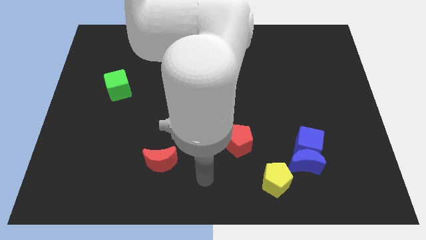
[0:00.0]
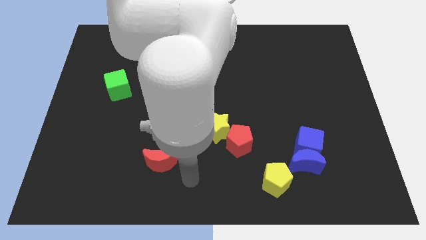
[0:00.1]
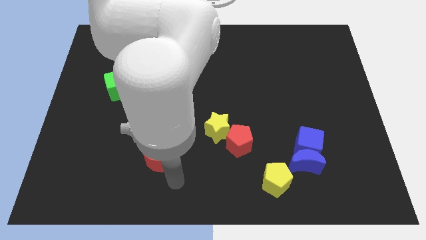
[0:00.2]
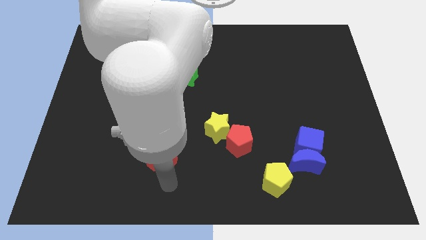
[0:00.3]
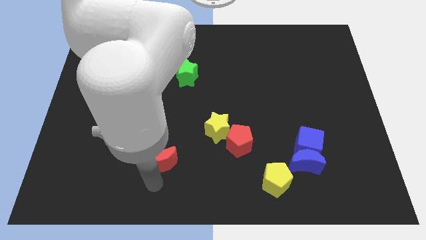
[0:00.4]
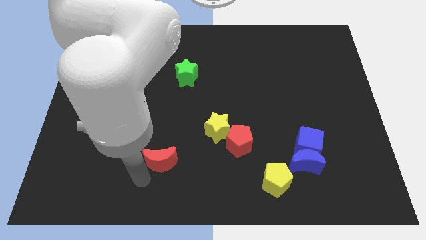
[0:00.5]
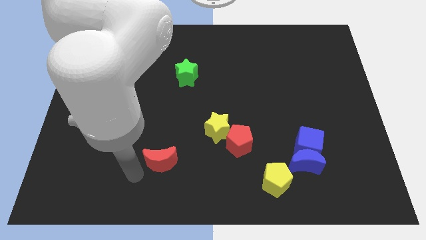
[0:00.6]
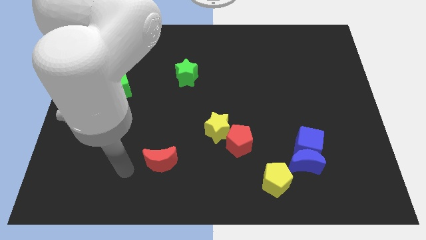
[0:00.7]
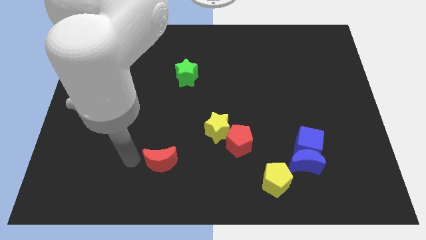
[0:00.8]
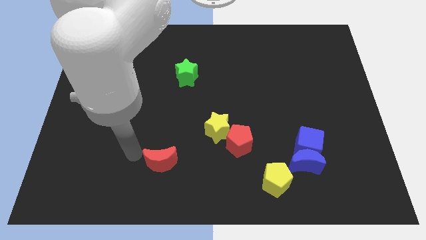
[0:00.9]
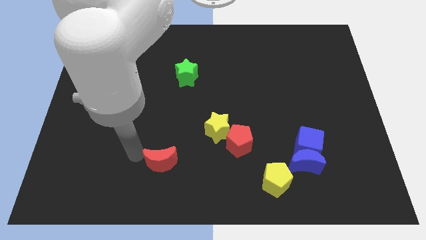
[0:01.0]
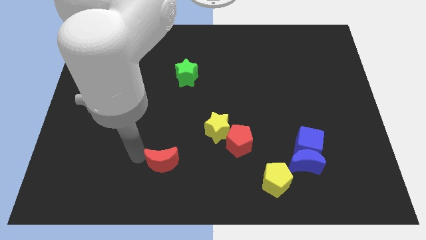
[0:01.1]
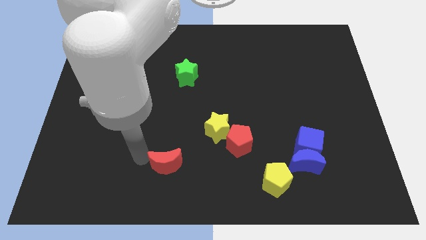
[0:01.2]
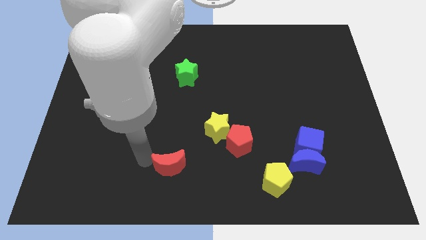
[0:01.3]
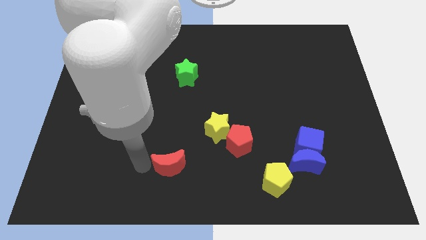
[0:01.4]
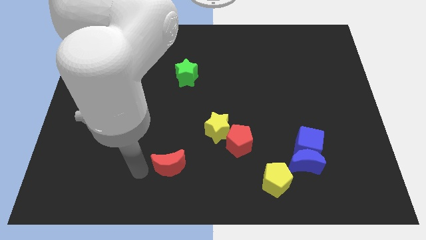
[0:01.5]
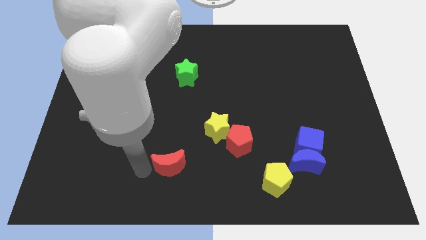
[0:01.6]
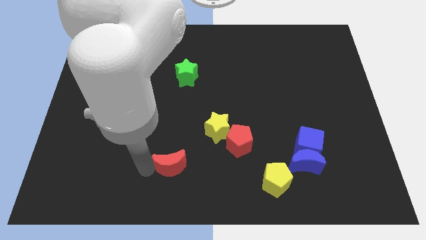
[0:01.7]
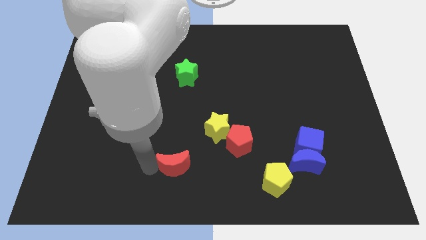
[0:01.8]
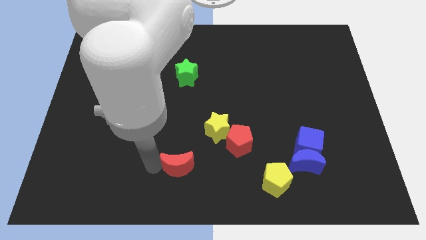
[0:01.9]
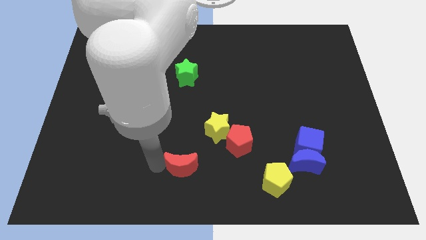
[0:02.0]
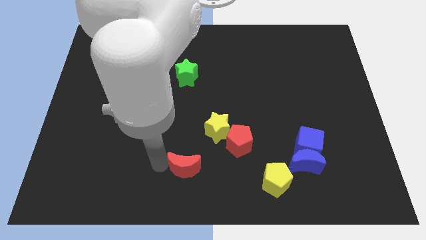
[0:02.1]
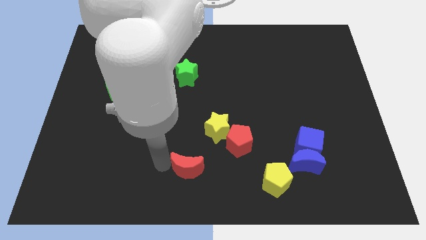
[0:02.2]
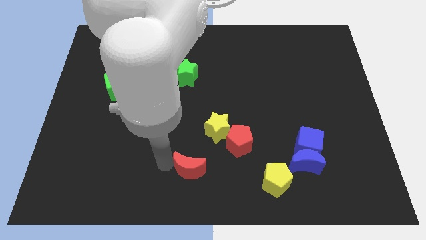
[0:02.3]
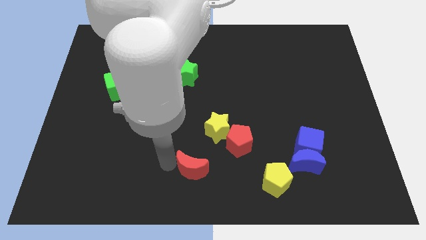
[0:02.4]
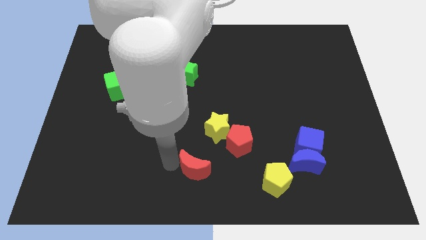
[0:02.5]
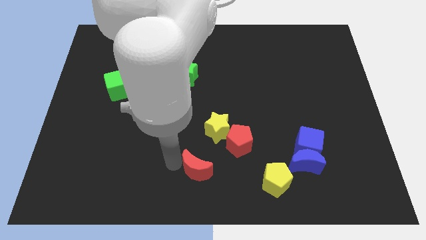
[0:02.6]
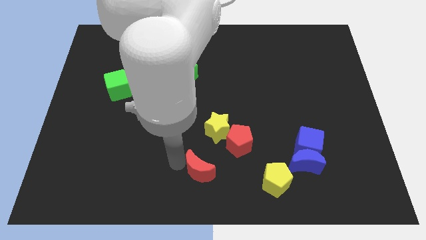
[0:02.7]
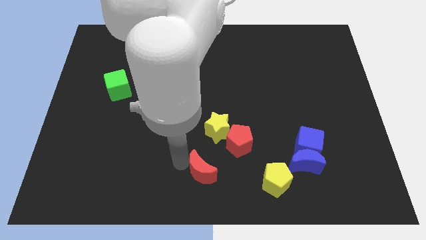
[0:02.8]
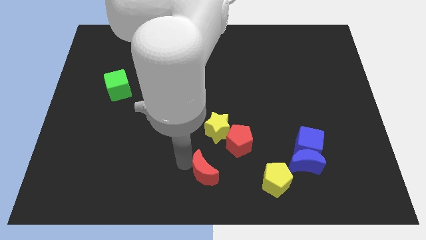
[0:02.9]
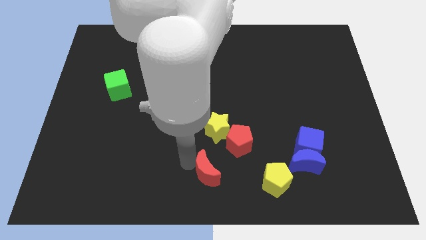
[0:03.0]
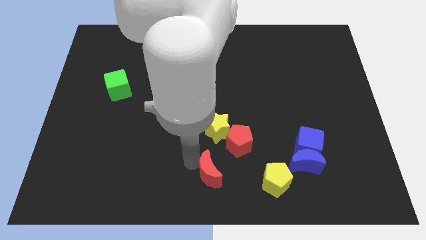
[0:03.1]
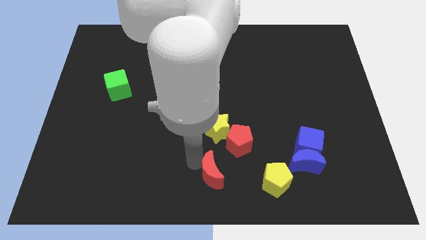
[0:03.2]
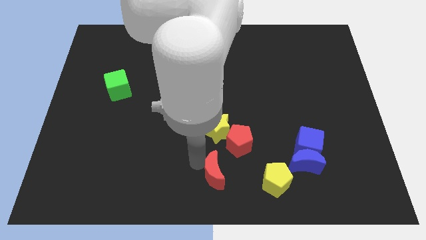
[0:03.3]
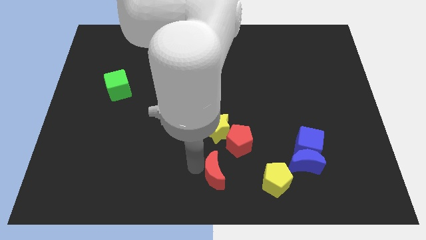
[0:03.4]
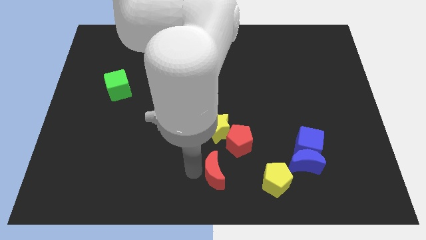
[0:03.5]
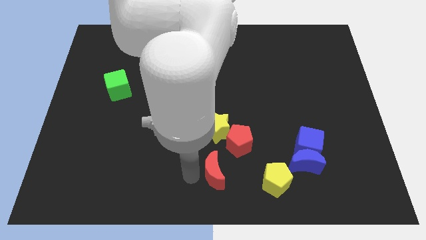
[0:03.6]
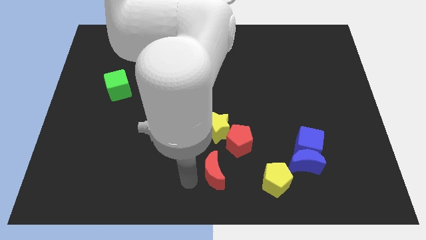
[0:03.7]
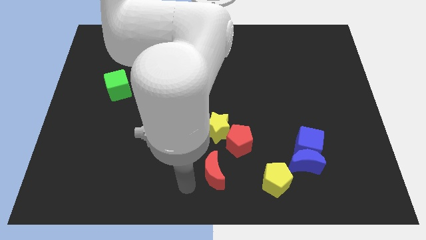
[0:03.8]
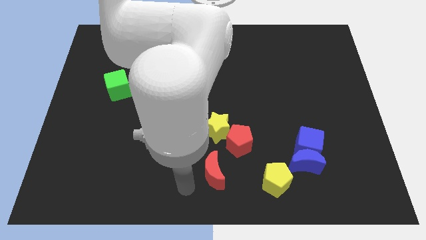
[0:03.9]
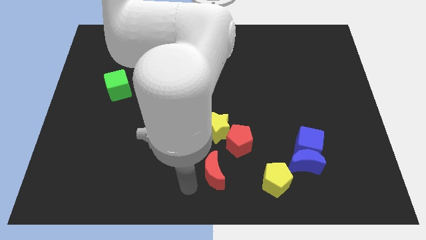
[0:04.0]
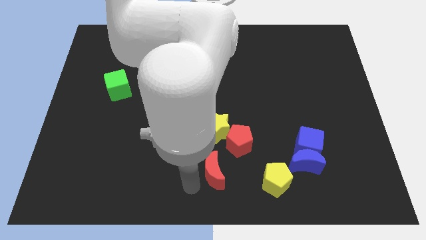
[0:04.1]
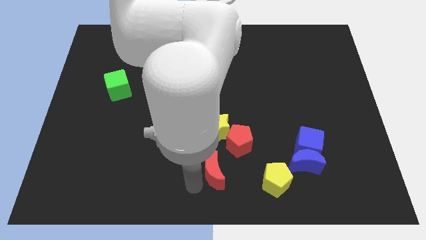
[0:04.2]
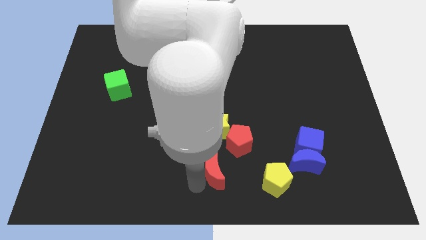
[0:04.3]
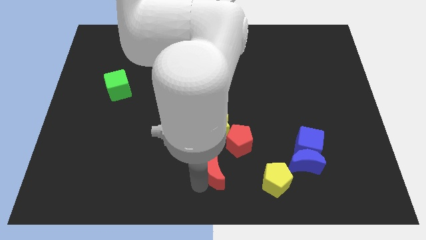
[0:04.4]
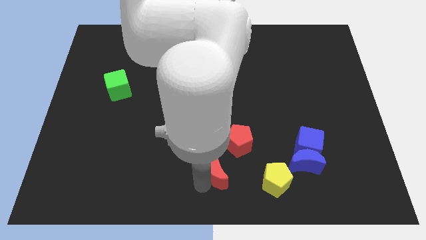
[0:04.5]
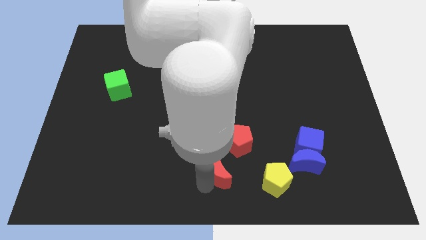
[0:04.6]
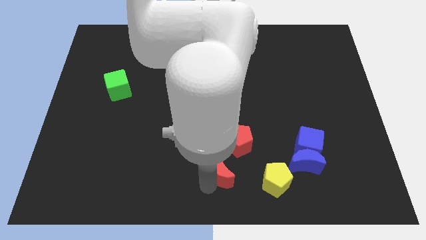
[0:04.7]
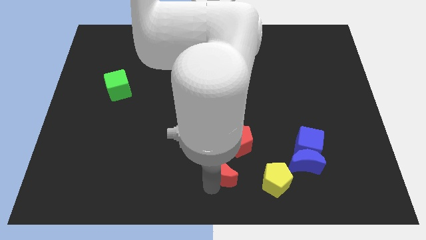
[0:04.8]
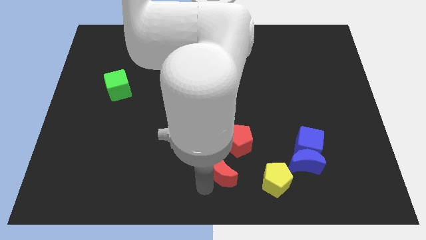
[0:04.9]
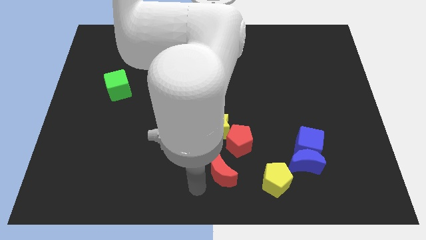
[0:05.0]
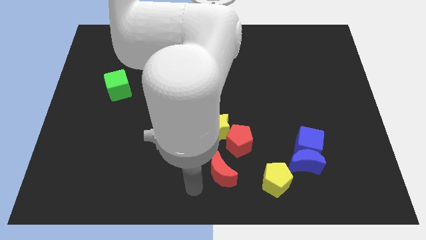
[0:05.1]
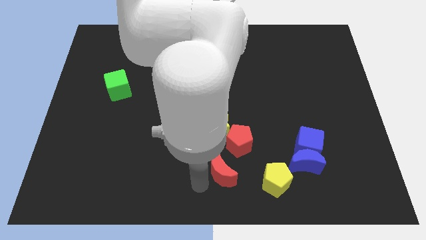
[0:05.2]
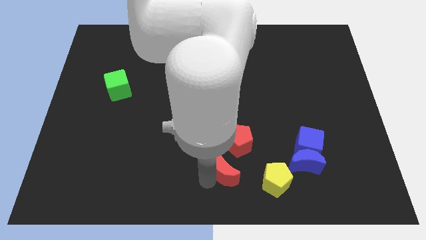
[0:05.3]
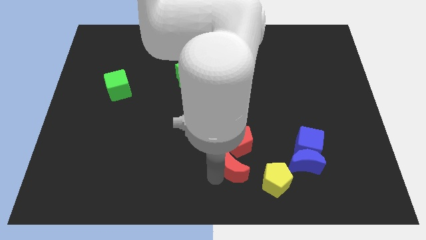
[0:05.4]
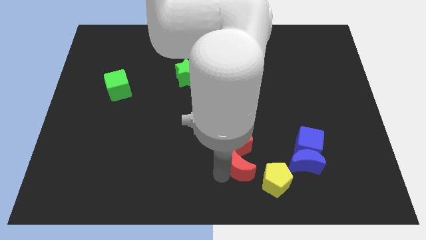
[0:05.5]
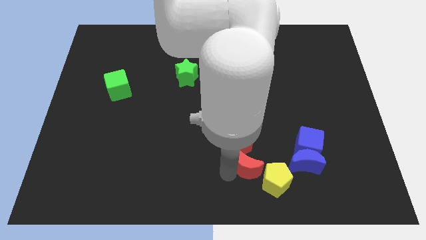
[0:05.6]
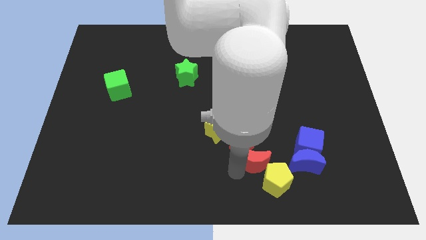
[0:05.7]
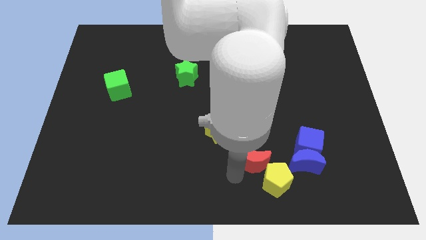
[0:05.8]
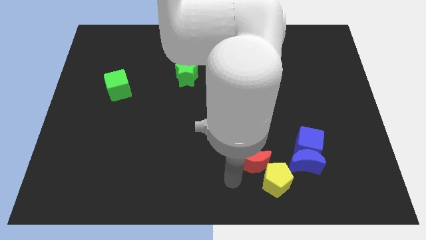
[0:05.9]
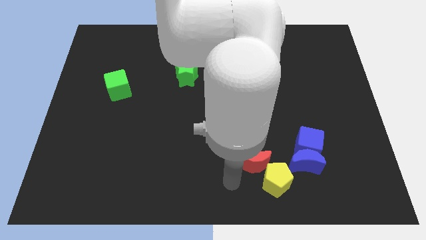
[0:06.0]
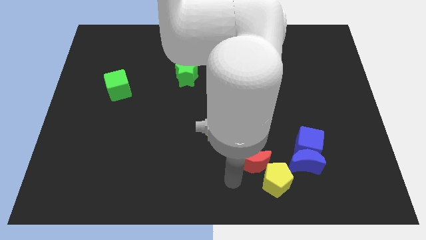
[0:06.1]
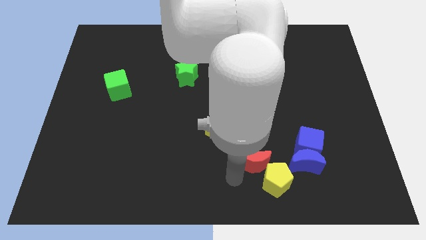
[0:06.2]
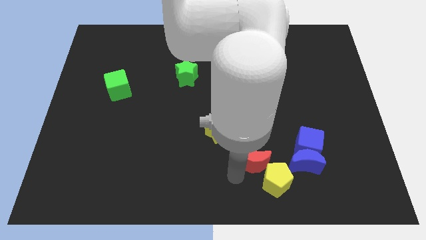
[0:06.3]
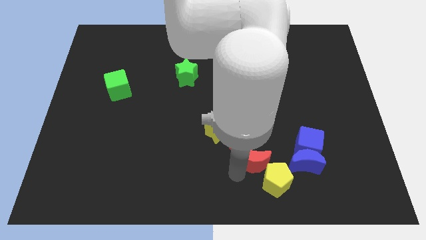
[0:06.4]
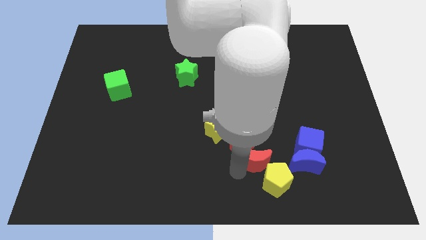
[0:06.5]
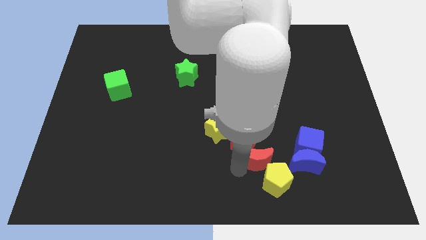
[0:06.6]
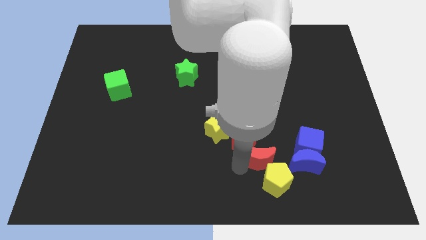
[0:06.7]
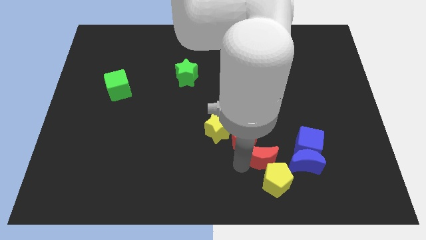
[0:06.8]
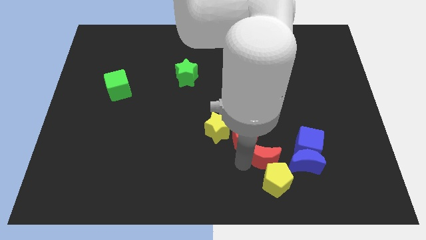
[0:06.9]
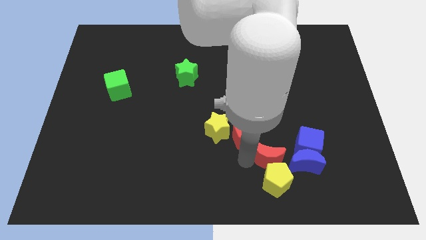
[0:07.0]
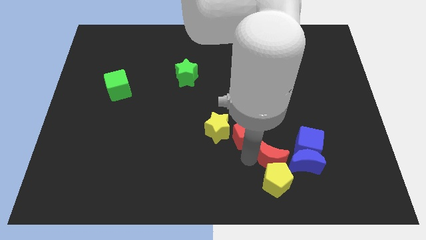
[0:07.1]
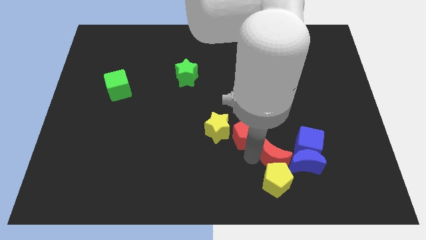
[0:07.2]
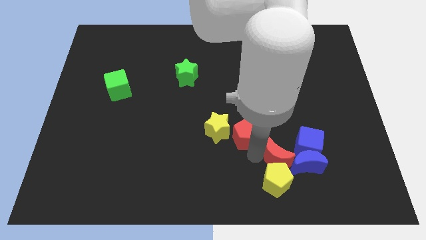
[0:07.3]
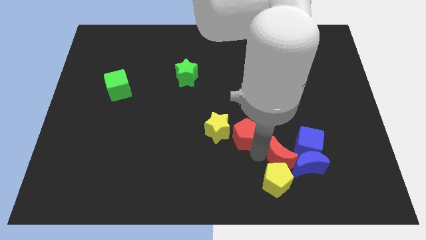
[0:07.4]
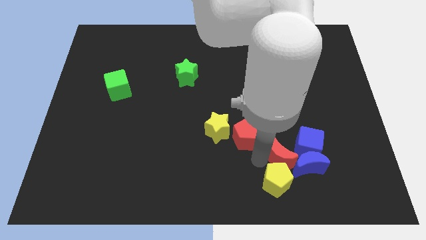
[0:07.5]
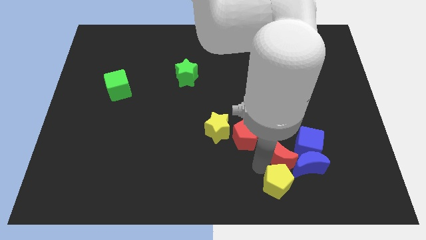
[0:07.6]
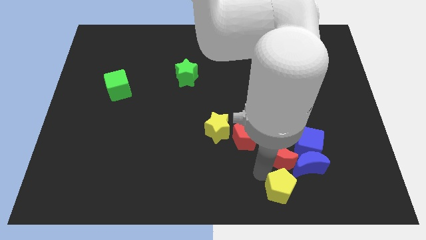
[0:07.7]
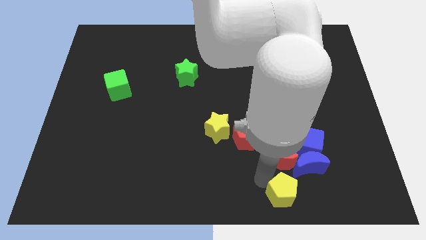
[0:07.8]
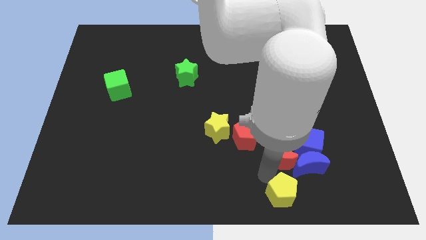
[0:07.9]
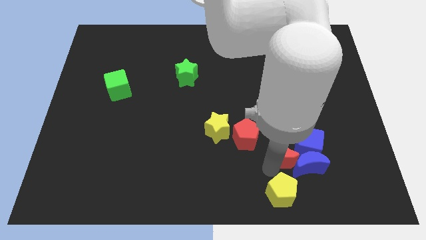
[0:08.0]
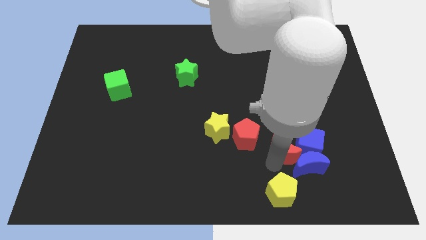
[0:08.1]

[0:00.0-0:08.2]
push the red moon to the blue cube
